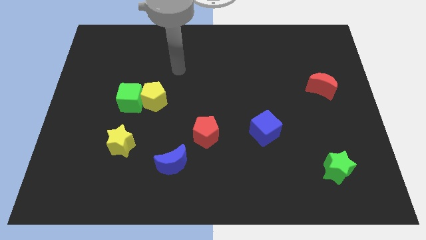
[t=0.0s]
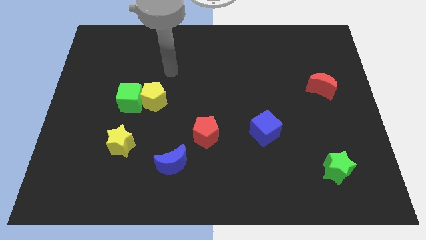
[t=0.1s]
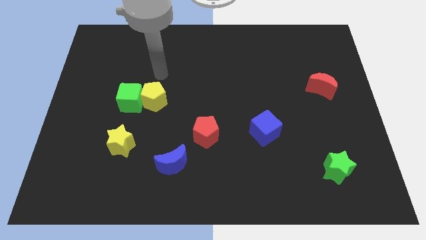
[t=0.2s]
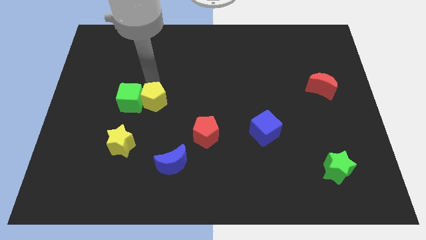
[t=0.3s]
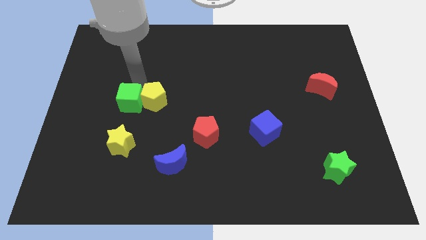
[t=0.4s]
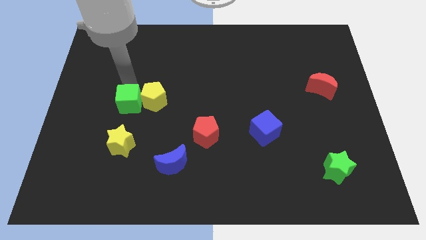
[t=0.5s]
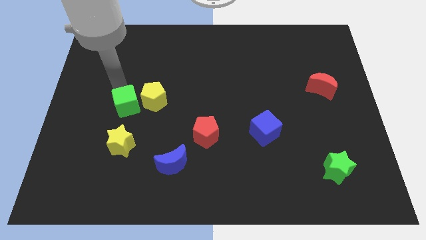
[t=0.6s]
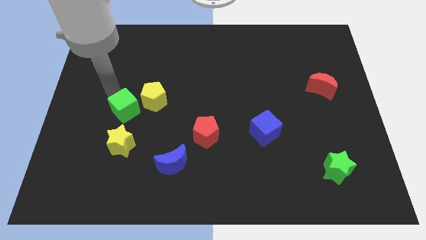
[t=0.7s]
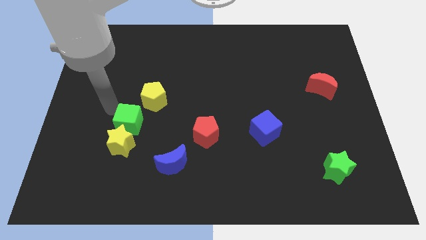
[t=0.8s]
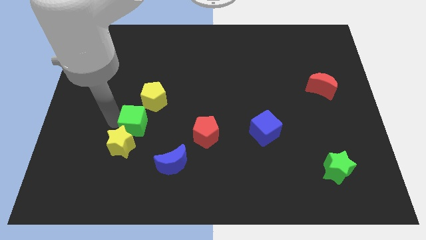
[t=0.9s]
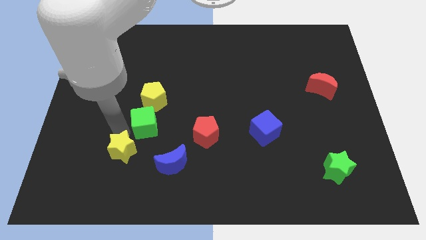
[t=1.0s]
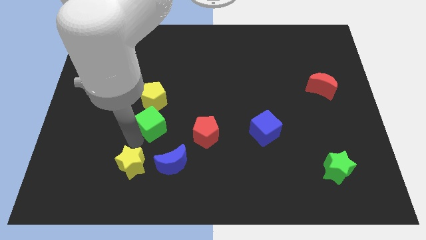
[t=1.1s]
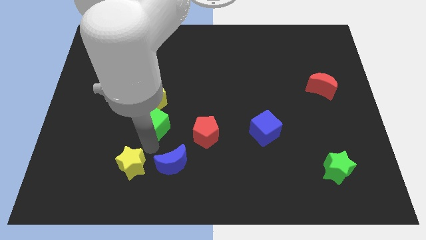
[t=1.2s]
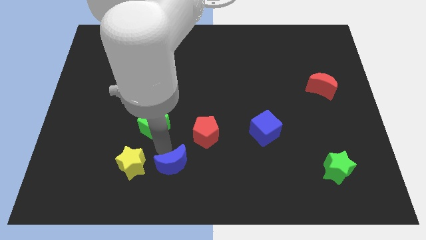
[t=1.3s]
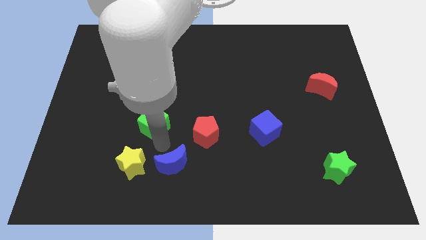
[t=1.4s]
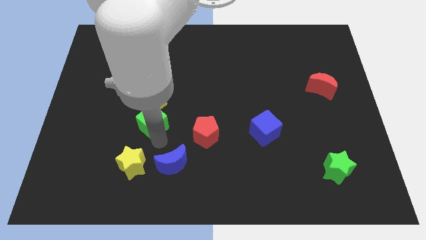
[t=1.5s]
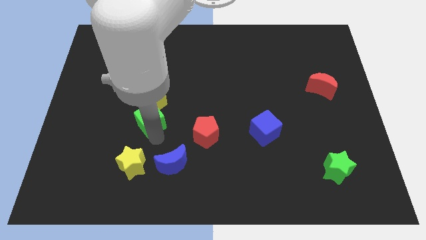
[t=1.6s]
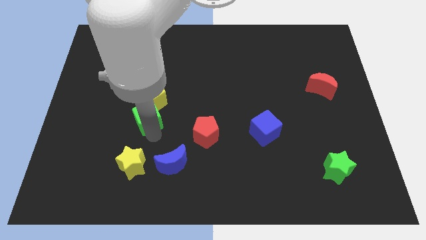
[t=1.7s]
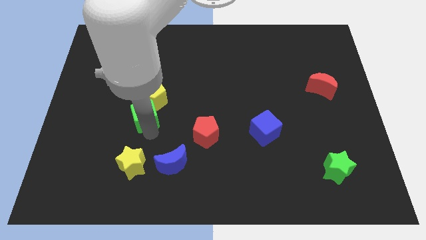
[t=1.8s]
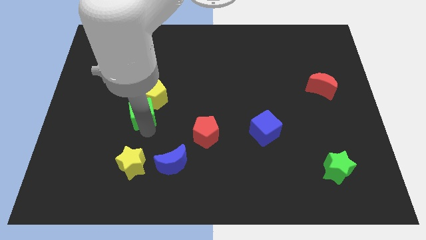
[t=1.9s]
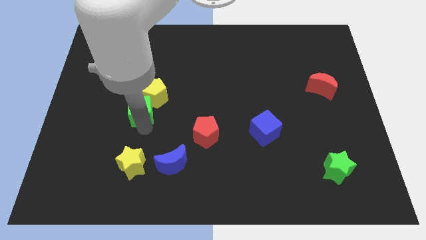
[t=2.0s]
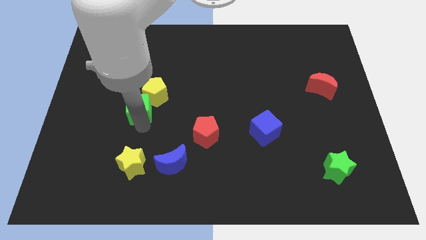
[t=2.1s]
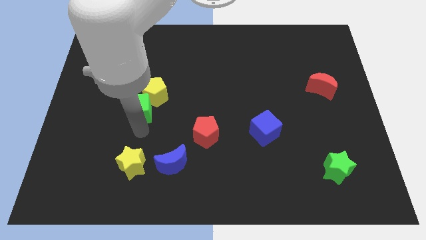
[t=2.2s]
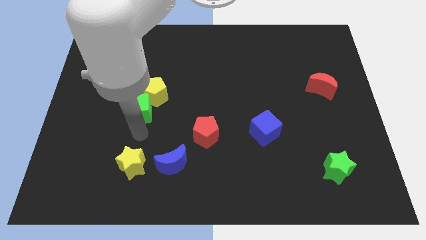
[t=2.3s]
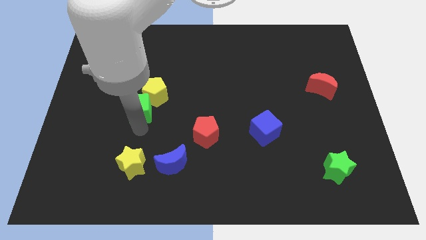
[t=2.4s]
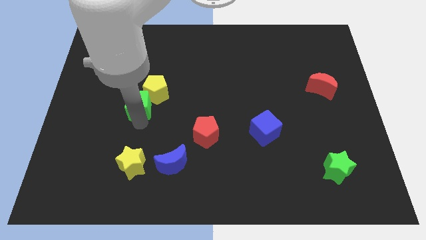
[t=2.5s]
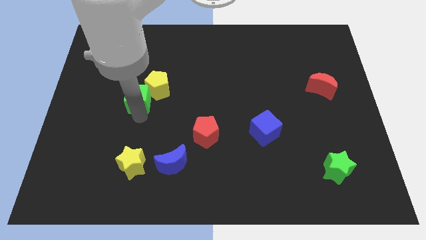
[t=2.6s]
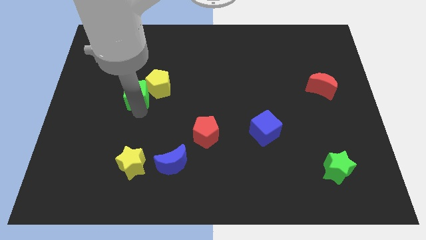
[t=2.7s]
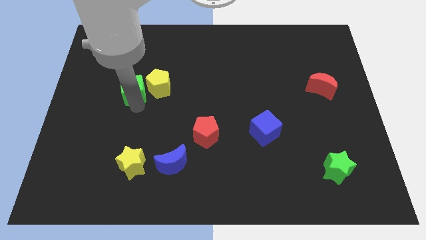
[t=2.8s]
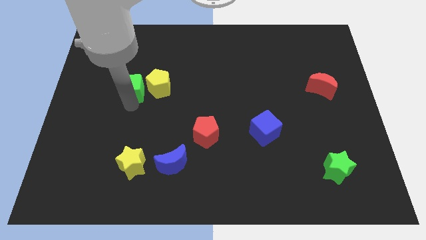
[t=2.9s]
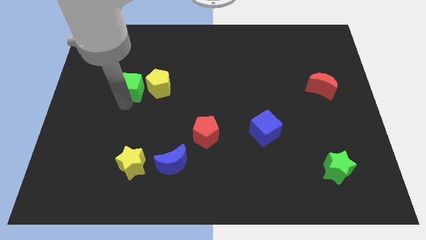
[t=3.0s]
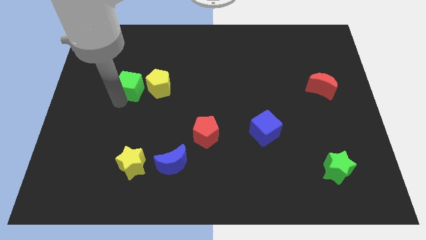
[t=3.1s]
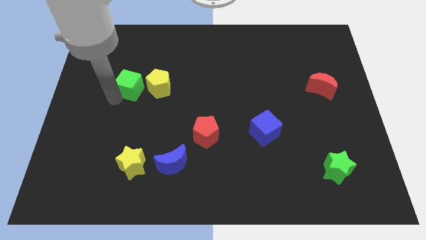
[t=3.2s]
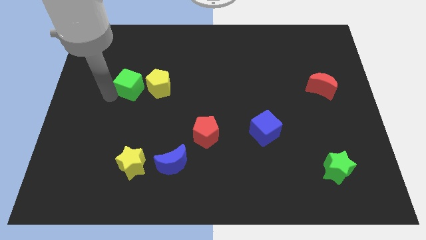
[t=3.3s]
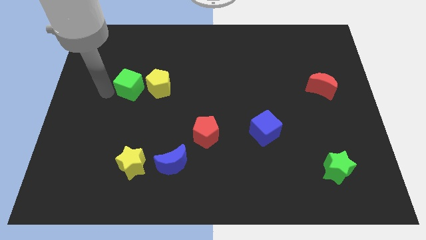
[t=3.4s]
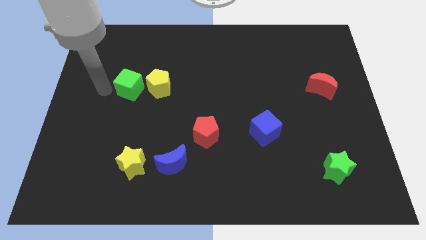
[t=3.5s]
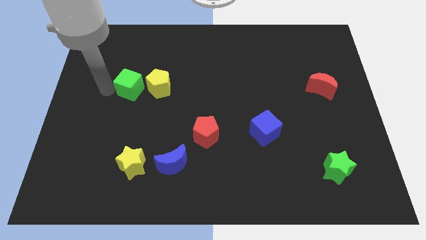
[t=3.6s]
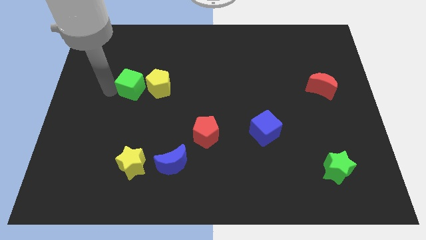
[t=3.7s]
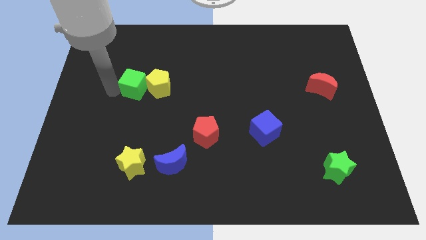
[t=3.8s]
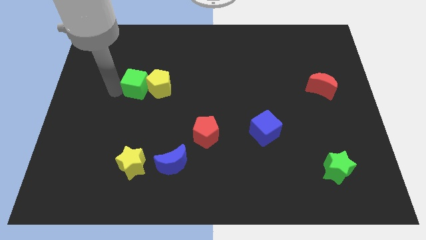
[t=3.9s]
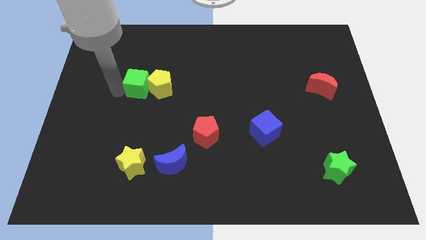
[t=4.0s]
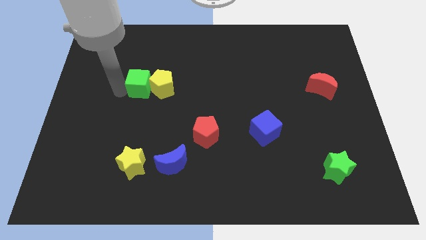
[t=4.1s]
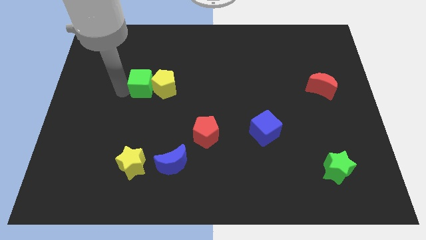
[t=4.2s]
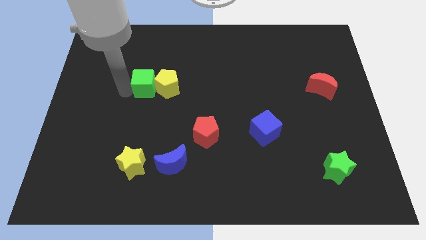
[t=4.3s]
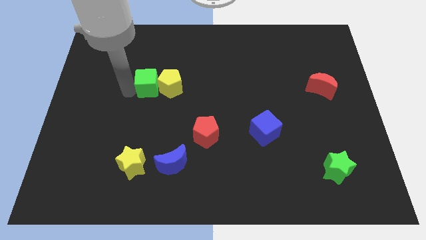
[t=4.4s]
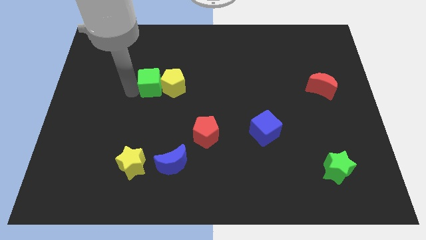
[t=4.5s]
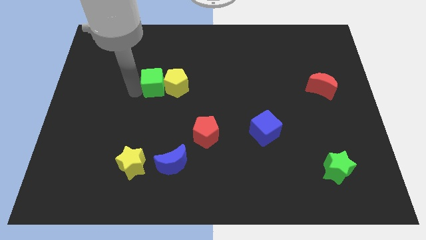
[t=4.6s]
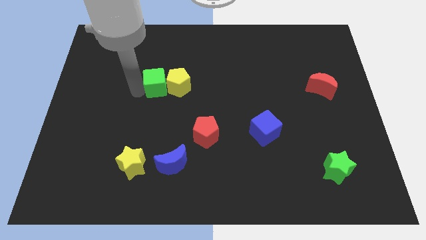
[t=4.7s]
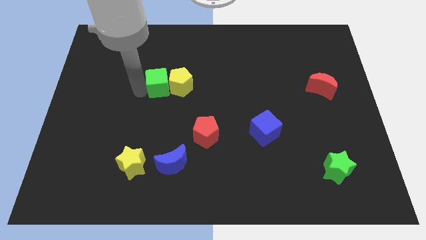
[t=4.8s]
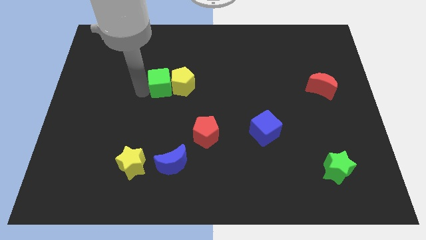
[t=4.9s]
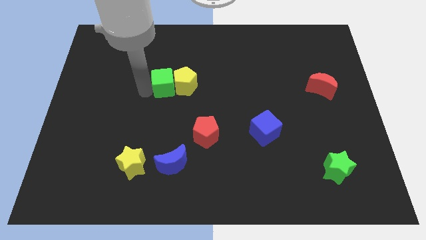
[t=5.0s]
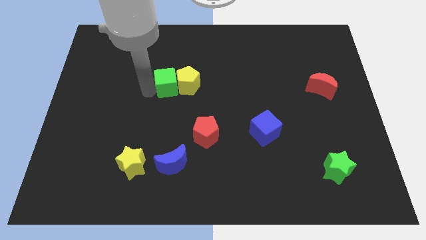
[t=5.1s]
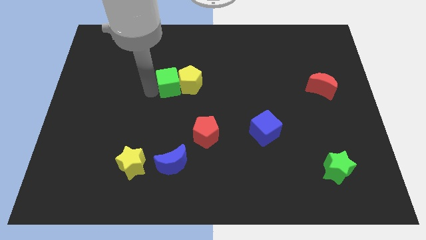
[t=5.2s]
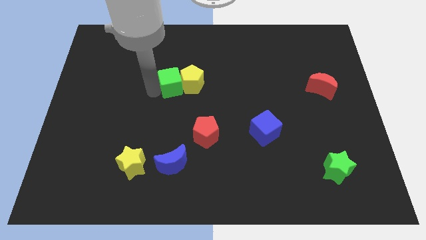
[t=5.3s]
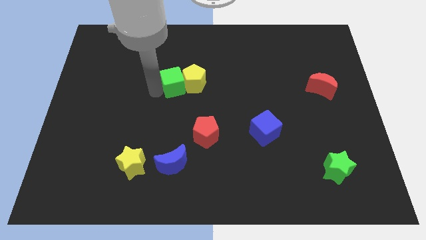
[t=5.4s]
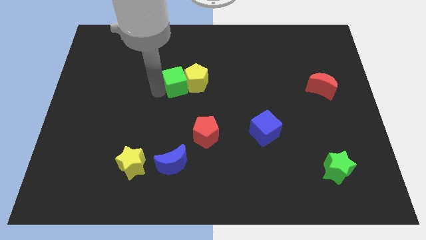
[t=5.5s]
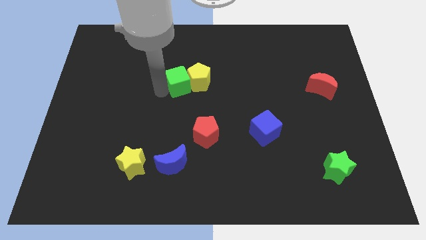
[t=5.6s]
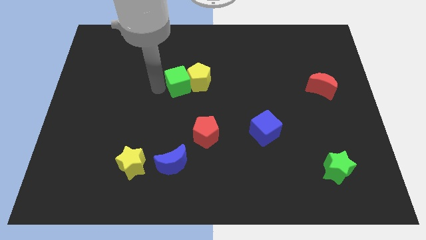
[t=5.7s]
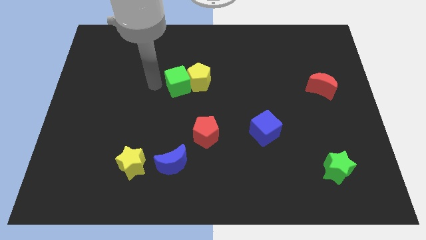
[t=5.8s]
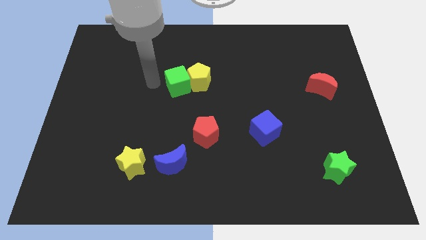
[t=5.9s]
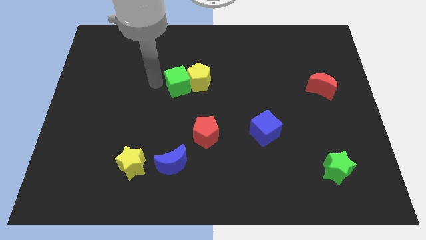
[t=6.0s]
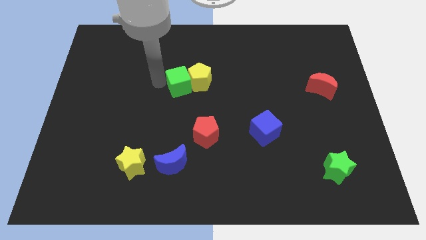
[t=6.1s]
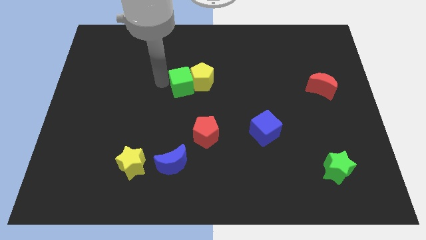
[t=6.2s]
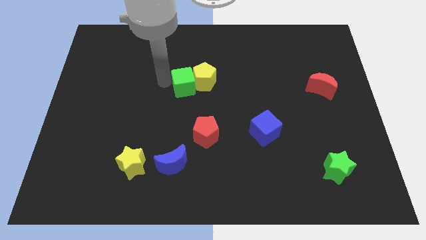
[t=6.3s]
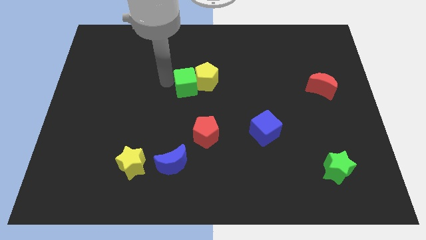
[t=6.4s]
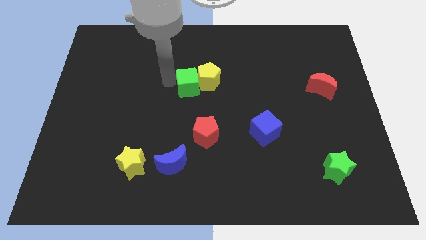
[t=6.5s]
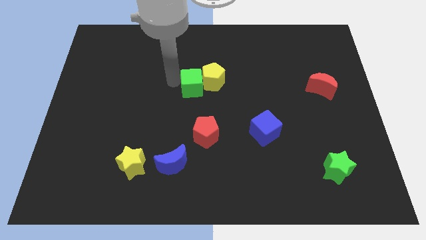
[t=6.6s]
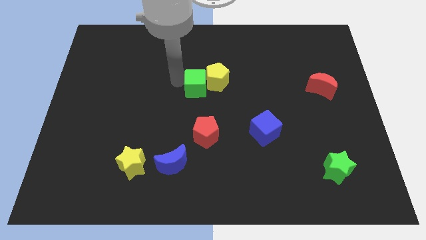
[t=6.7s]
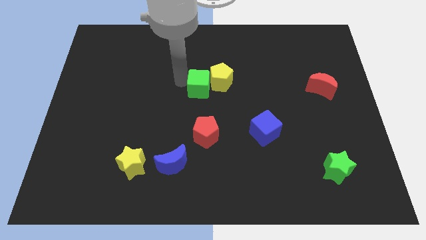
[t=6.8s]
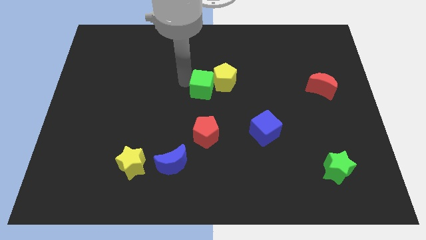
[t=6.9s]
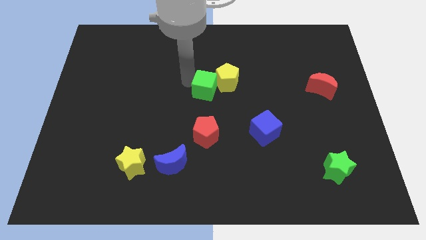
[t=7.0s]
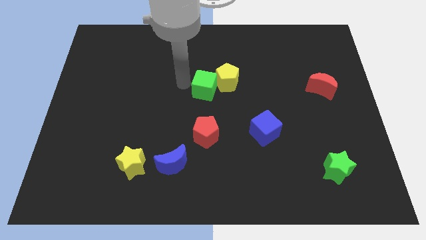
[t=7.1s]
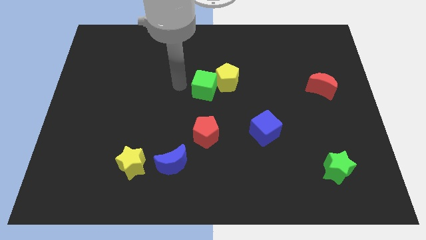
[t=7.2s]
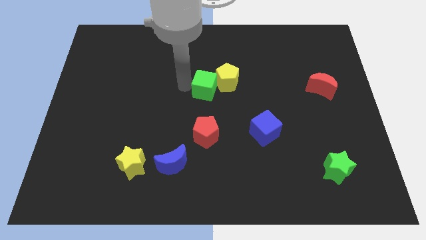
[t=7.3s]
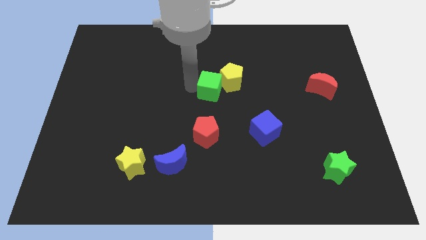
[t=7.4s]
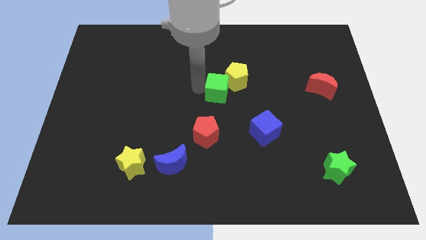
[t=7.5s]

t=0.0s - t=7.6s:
slide the green cube to the right

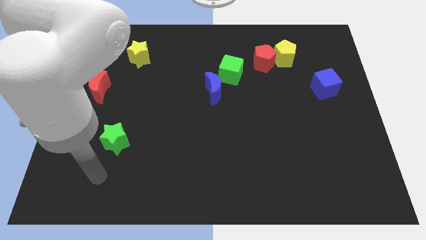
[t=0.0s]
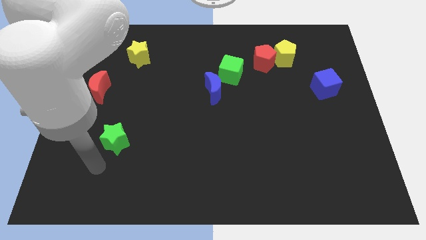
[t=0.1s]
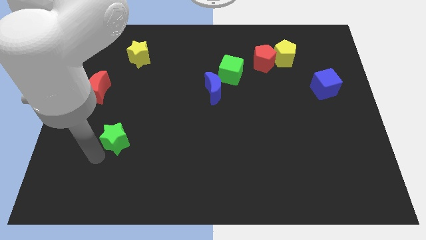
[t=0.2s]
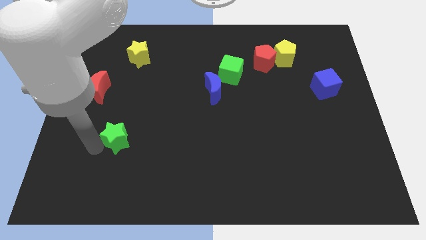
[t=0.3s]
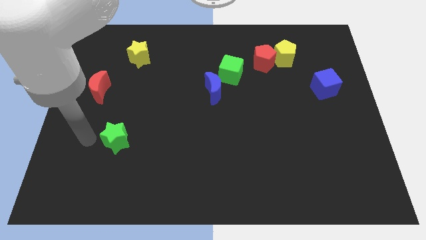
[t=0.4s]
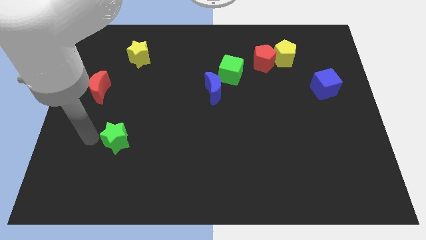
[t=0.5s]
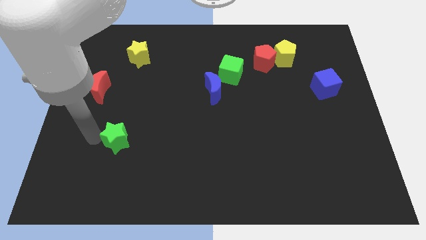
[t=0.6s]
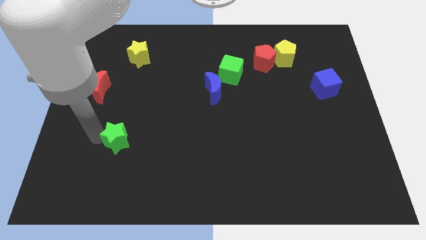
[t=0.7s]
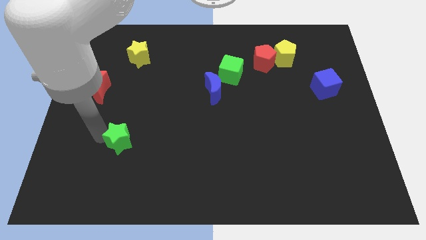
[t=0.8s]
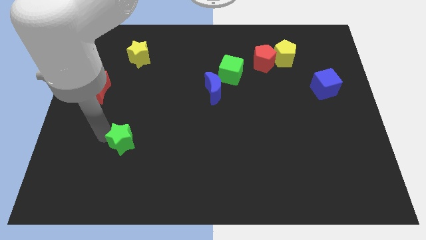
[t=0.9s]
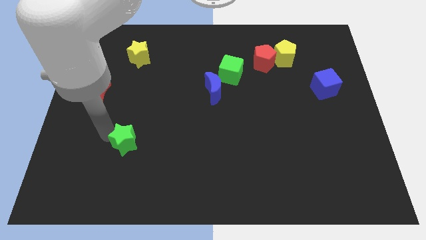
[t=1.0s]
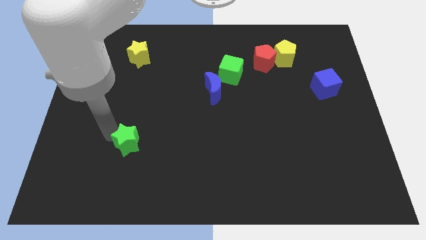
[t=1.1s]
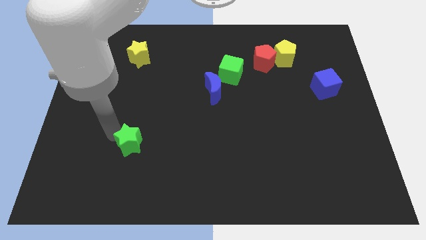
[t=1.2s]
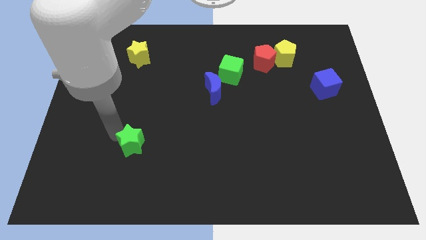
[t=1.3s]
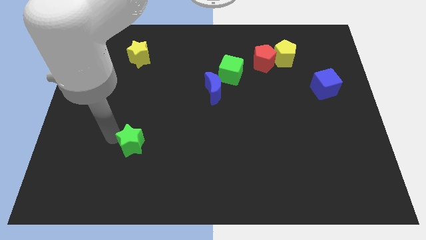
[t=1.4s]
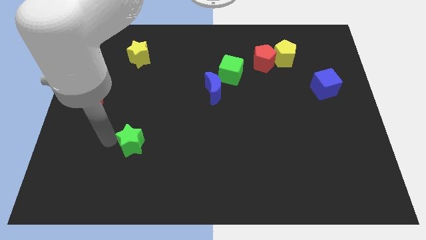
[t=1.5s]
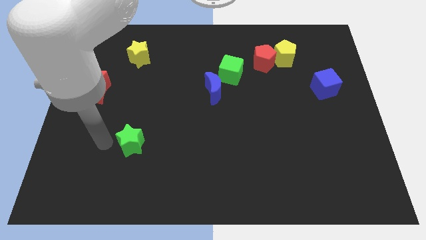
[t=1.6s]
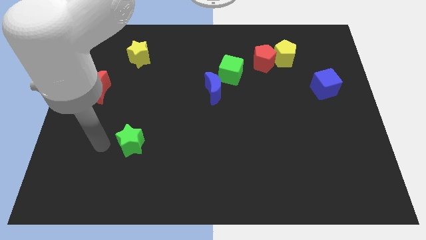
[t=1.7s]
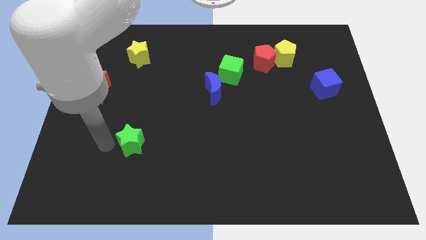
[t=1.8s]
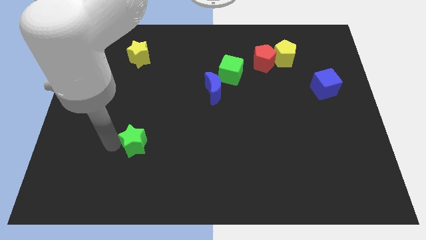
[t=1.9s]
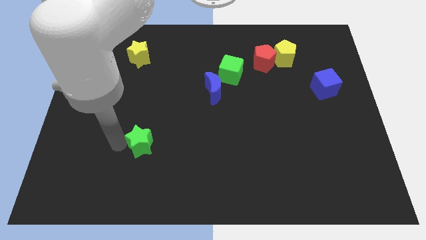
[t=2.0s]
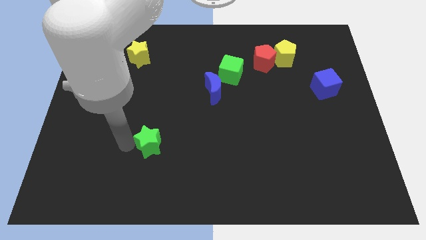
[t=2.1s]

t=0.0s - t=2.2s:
push the green star to the right a little bit
